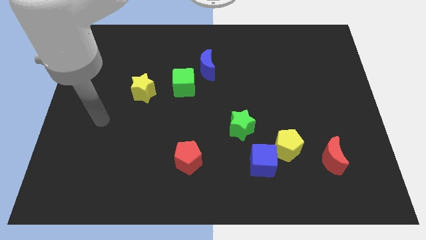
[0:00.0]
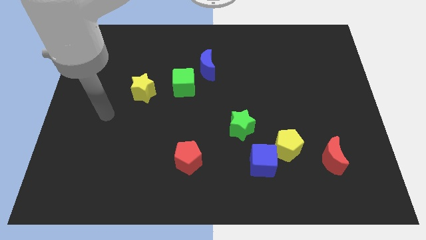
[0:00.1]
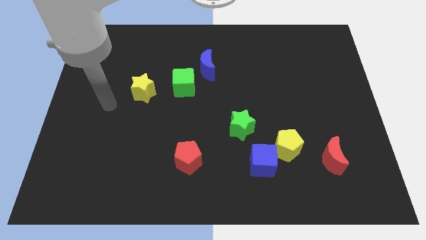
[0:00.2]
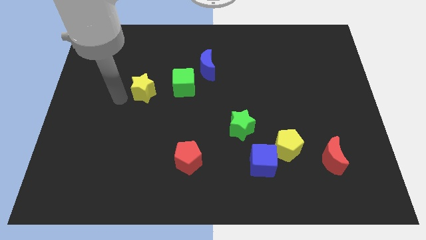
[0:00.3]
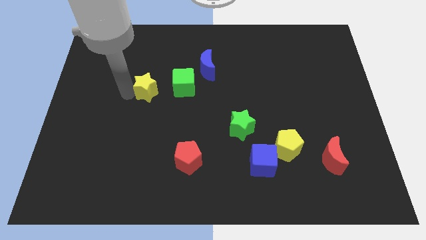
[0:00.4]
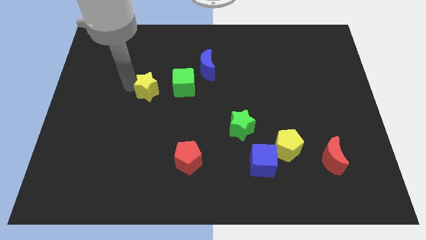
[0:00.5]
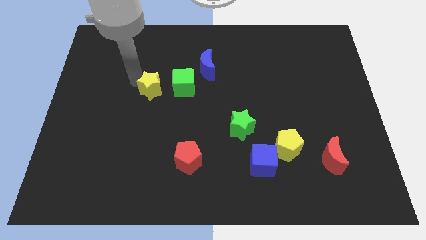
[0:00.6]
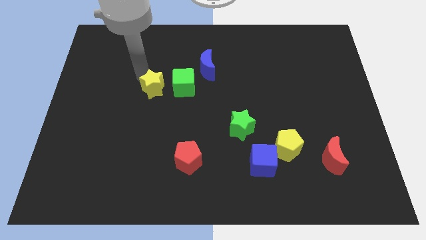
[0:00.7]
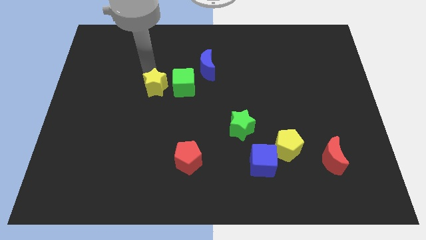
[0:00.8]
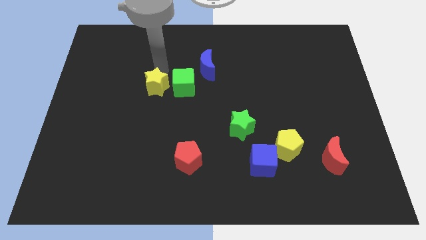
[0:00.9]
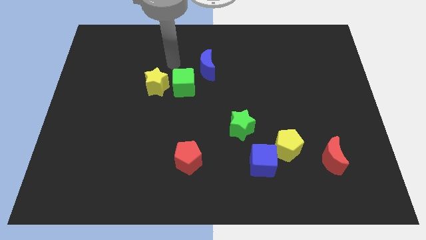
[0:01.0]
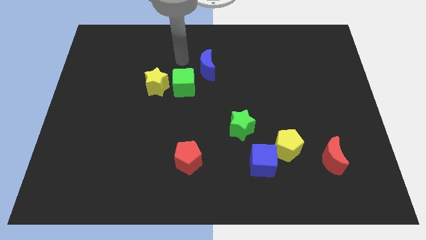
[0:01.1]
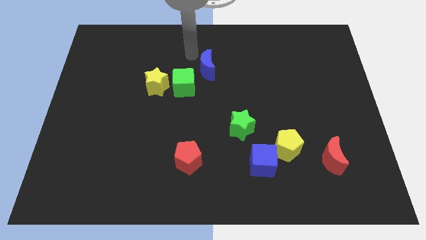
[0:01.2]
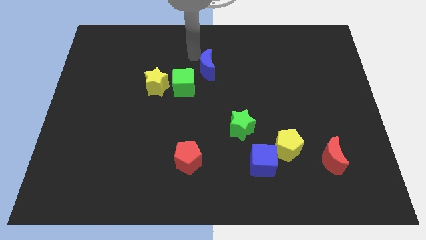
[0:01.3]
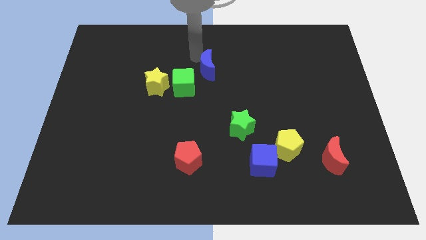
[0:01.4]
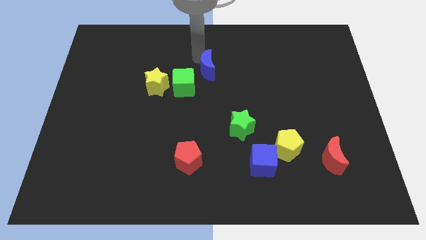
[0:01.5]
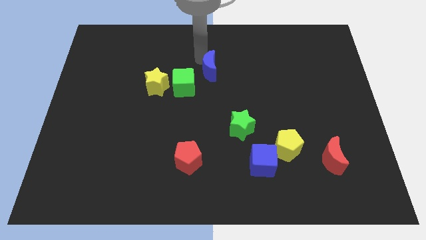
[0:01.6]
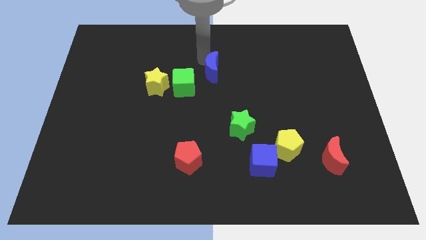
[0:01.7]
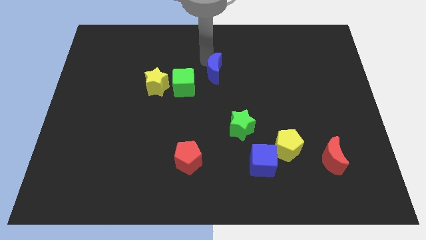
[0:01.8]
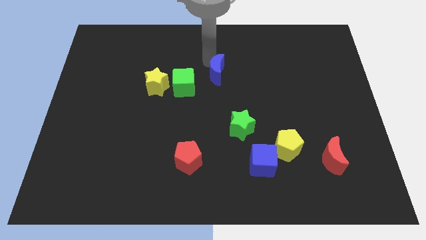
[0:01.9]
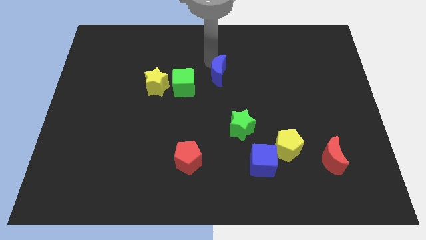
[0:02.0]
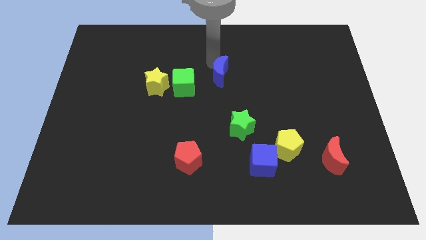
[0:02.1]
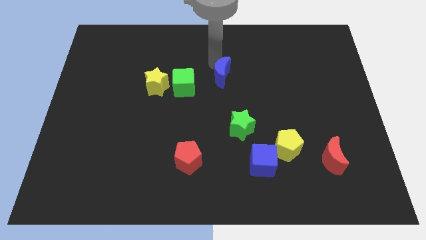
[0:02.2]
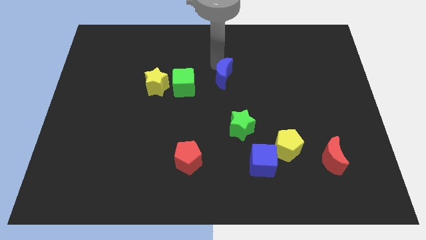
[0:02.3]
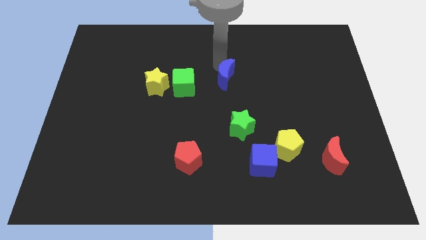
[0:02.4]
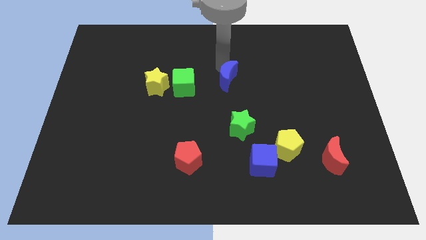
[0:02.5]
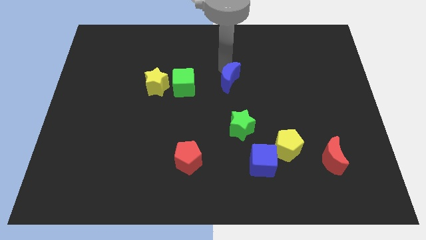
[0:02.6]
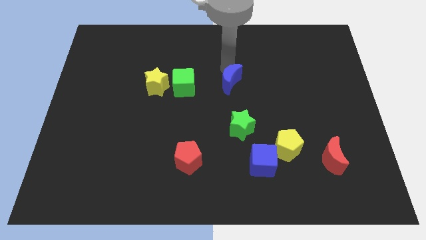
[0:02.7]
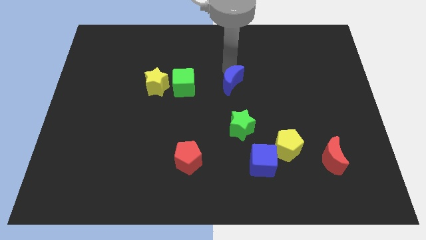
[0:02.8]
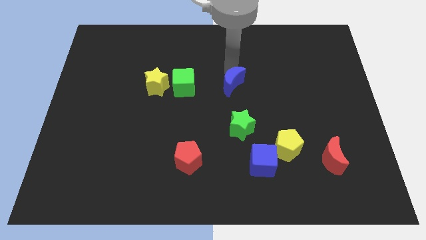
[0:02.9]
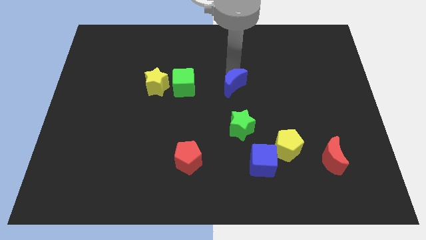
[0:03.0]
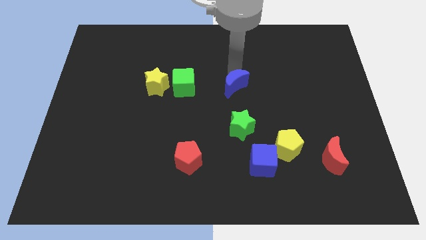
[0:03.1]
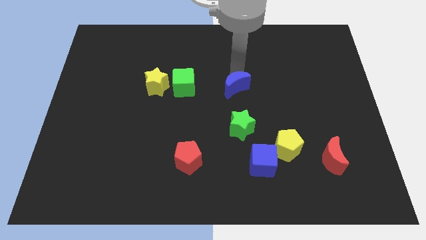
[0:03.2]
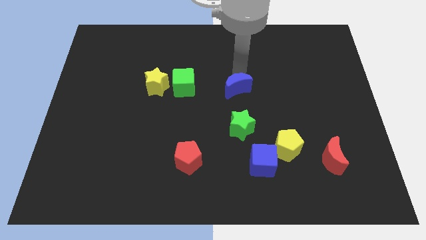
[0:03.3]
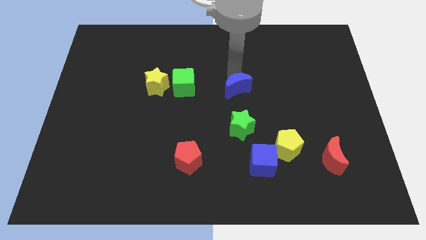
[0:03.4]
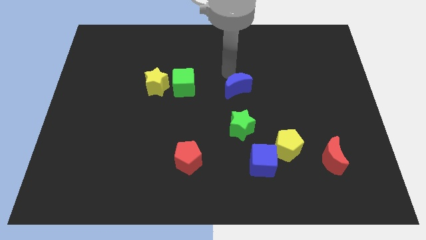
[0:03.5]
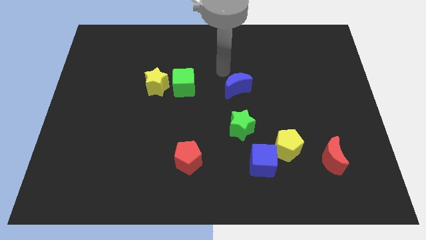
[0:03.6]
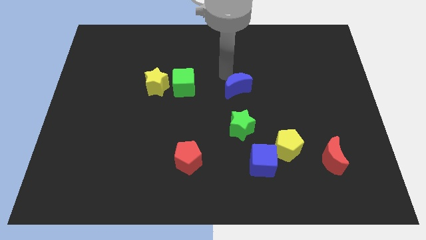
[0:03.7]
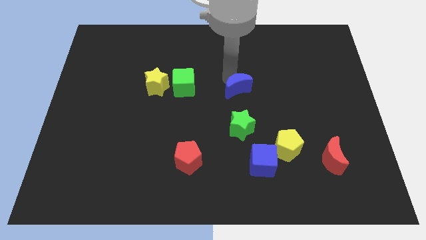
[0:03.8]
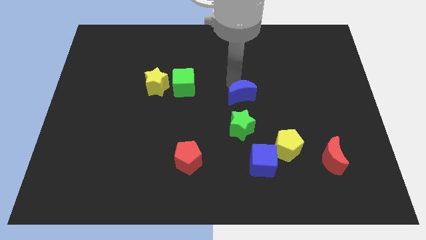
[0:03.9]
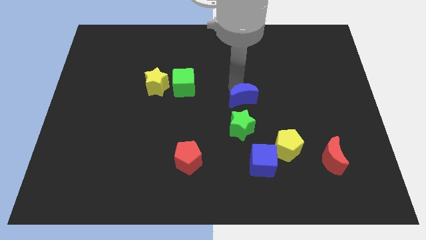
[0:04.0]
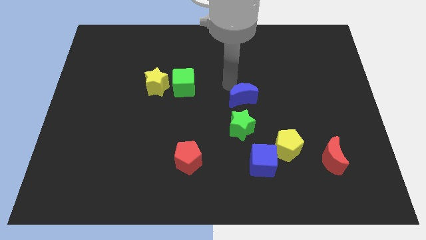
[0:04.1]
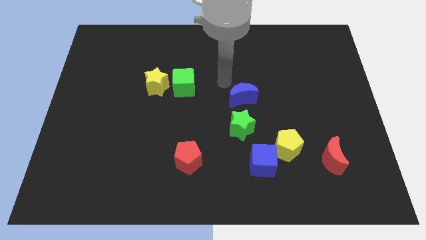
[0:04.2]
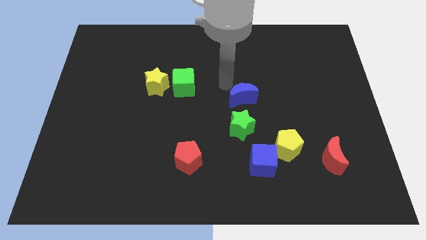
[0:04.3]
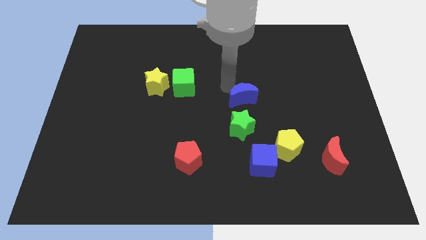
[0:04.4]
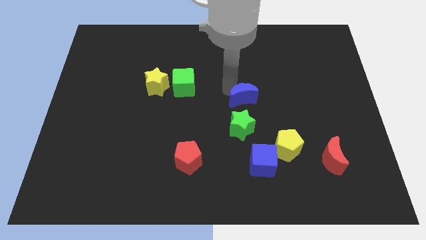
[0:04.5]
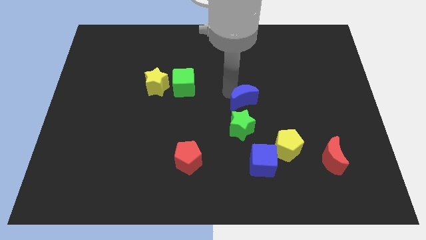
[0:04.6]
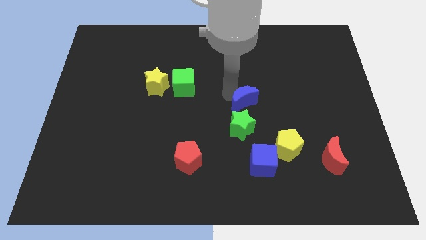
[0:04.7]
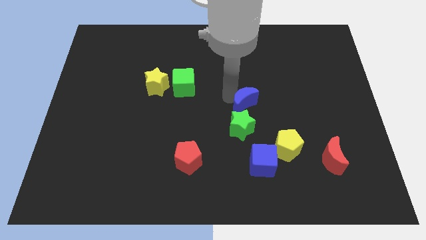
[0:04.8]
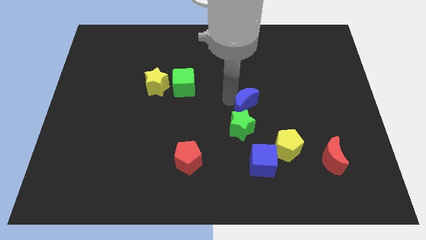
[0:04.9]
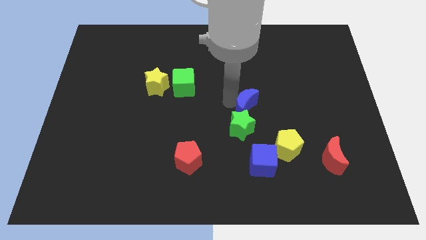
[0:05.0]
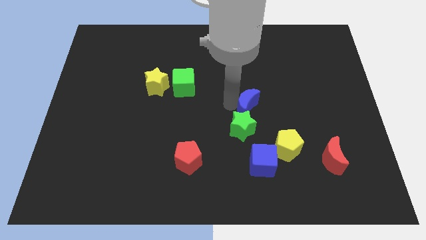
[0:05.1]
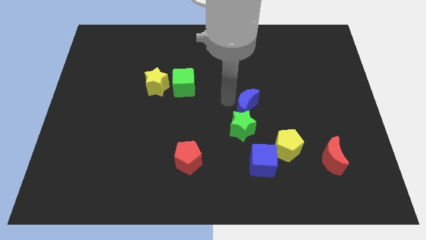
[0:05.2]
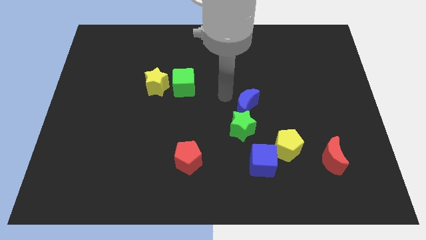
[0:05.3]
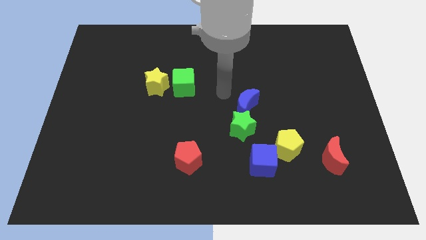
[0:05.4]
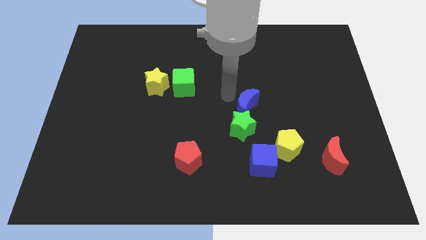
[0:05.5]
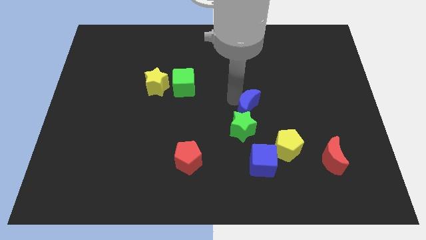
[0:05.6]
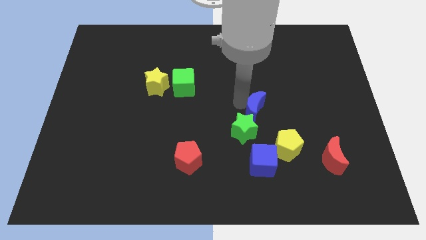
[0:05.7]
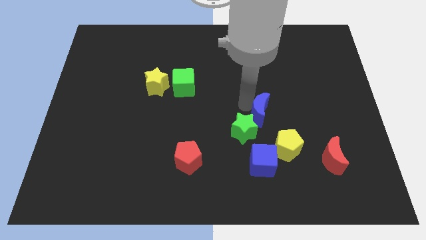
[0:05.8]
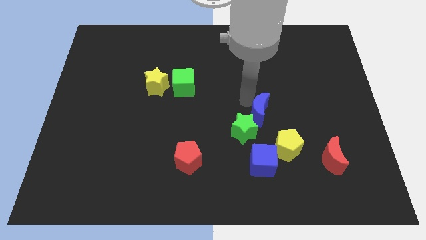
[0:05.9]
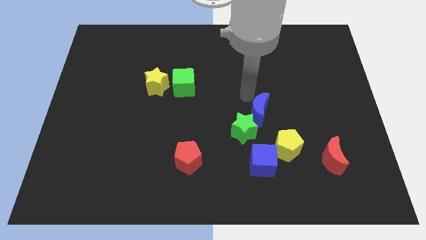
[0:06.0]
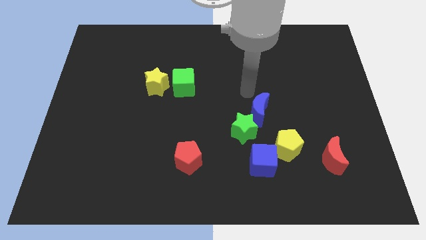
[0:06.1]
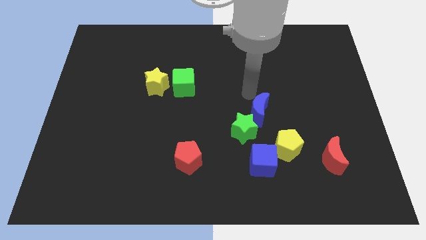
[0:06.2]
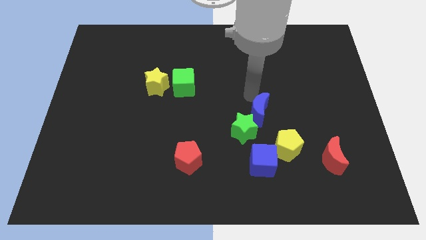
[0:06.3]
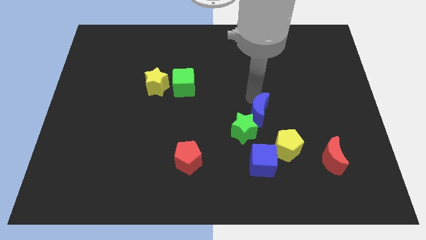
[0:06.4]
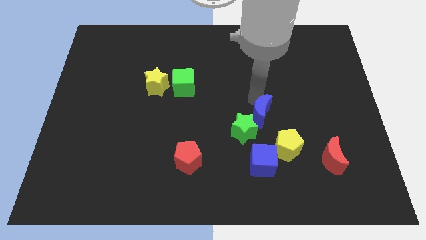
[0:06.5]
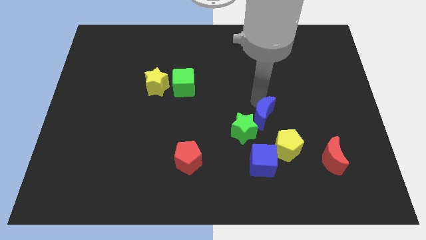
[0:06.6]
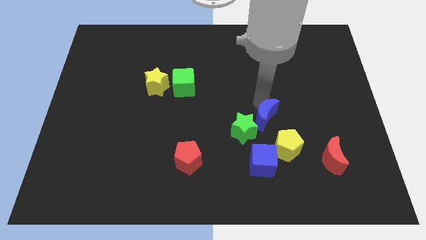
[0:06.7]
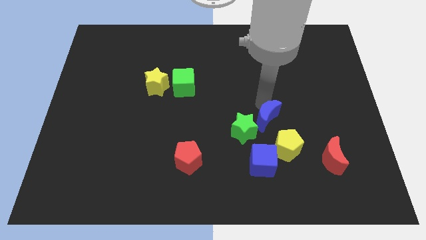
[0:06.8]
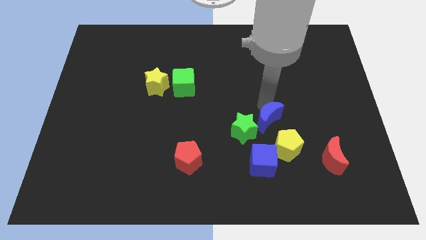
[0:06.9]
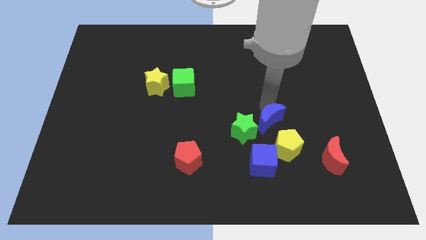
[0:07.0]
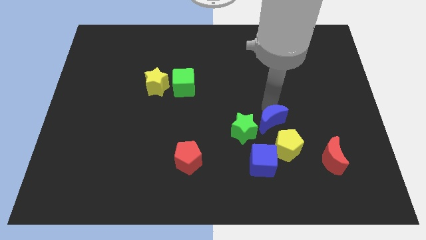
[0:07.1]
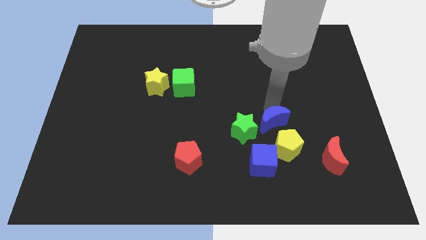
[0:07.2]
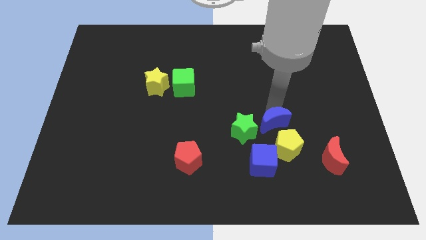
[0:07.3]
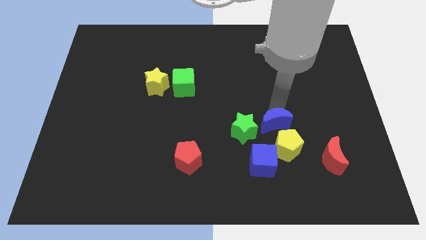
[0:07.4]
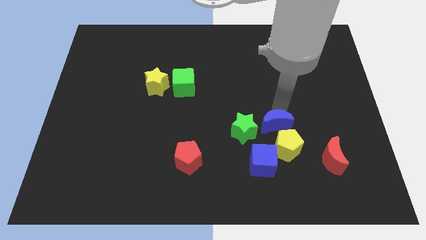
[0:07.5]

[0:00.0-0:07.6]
put the blue moon close to the yellow pentagon

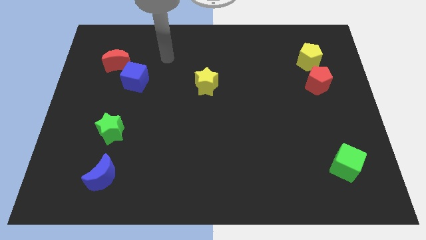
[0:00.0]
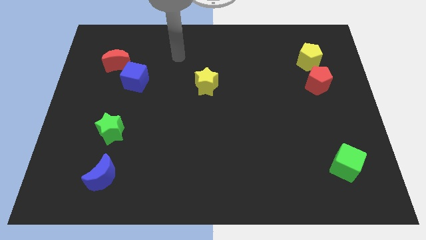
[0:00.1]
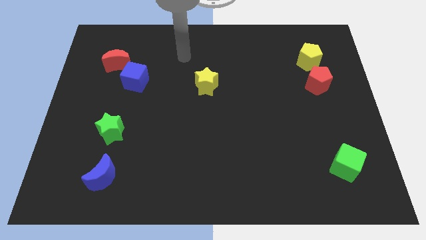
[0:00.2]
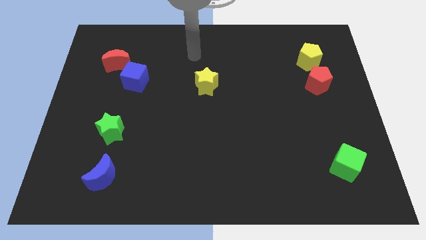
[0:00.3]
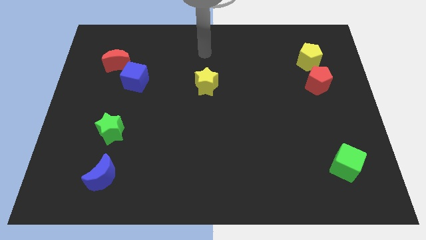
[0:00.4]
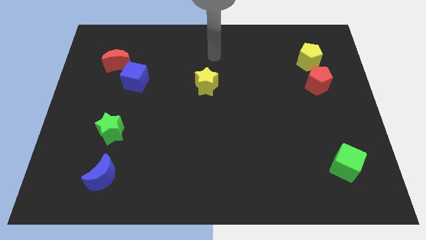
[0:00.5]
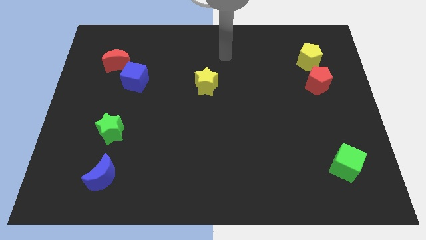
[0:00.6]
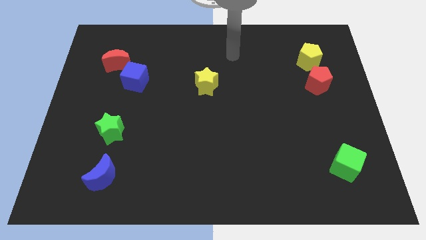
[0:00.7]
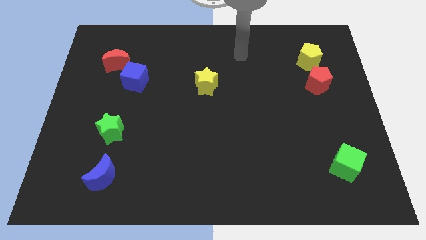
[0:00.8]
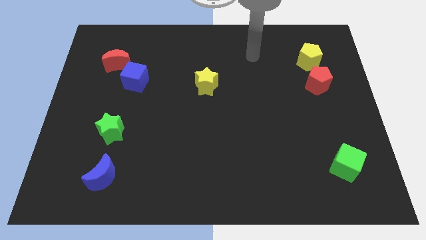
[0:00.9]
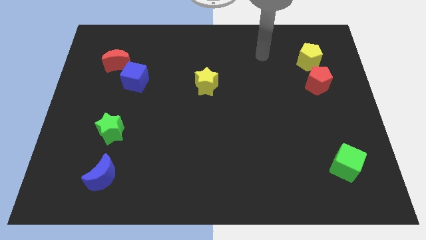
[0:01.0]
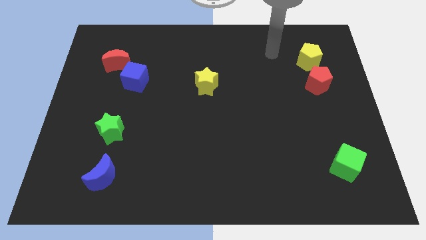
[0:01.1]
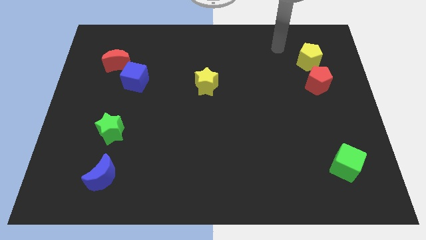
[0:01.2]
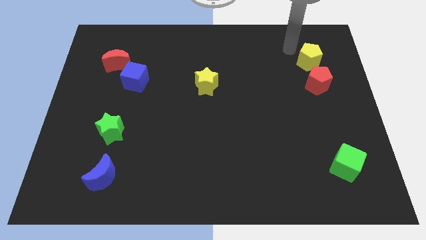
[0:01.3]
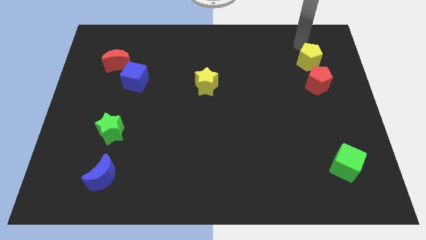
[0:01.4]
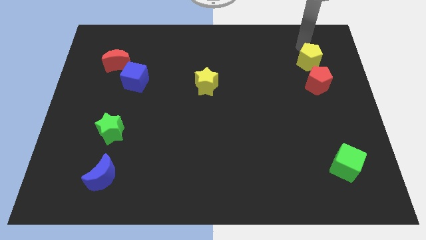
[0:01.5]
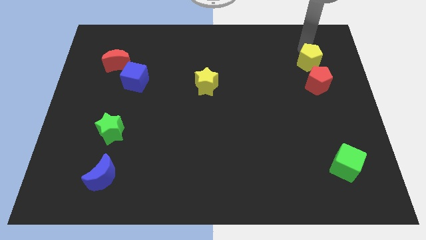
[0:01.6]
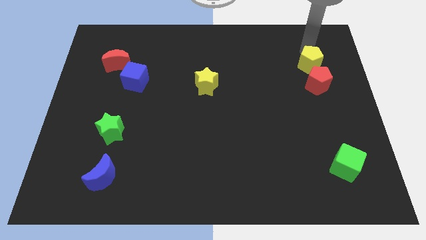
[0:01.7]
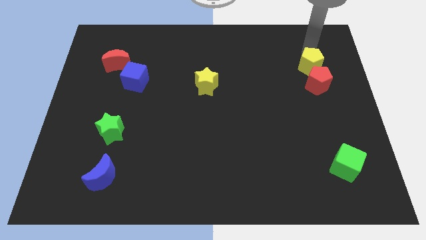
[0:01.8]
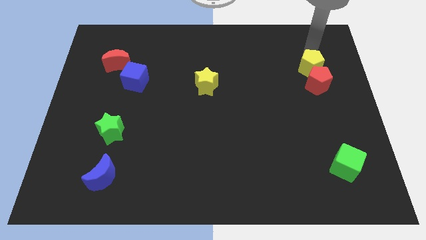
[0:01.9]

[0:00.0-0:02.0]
move the yellow pentagon next to the red pentagon
